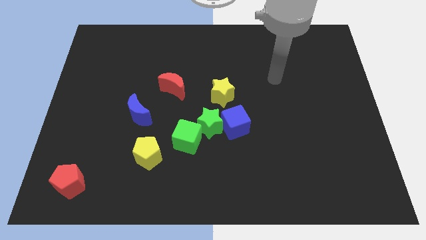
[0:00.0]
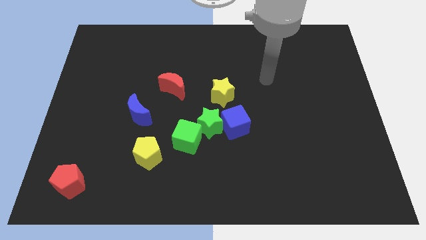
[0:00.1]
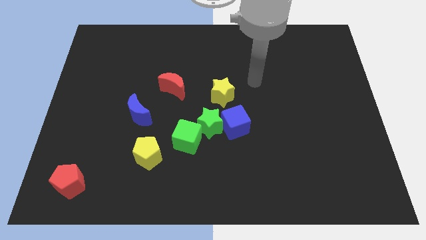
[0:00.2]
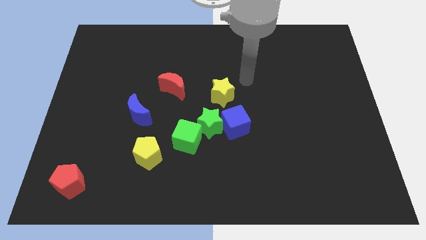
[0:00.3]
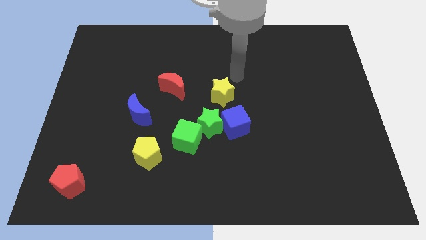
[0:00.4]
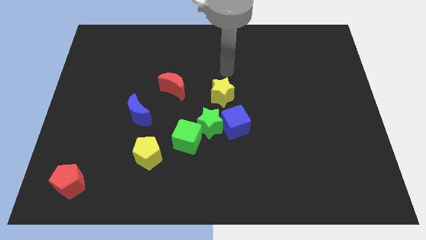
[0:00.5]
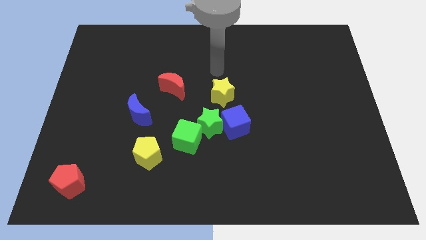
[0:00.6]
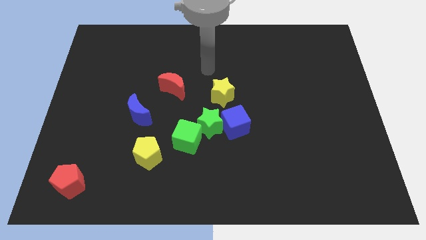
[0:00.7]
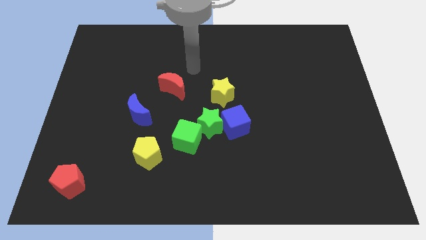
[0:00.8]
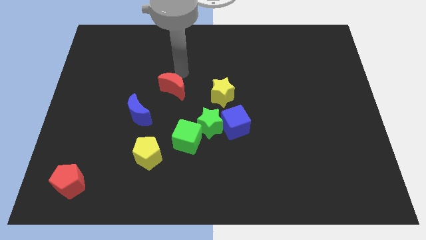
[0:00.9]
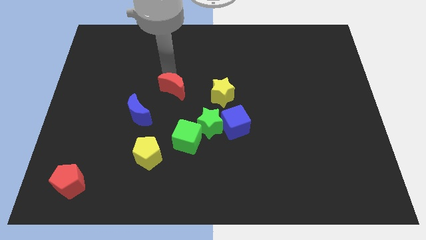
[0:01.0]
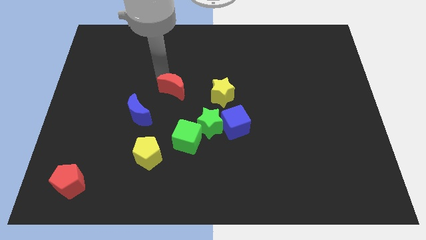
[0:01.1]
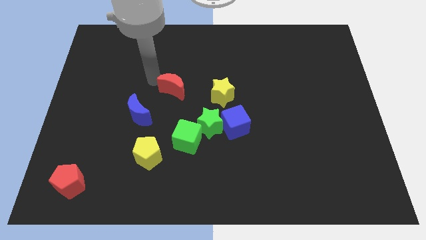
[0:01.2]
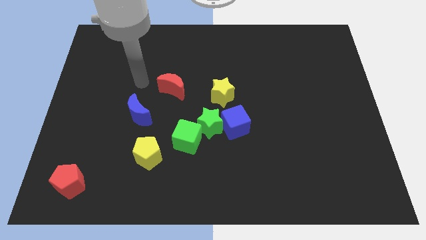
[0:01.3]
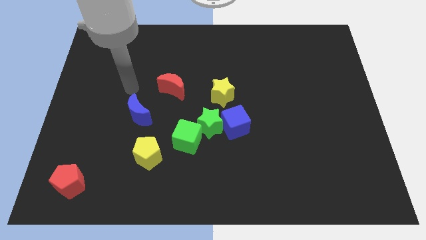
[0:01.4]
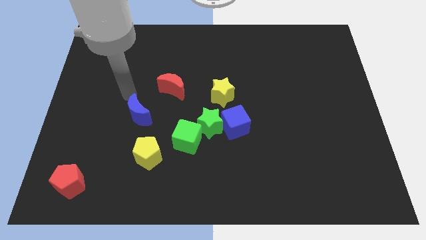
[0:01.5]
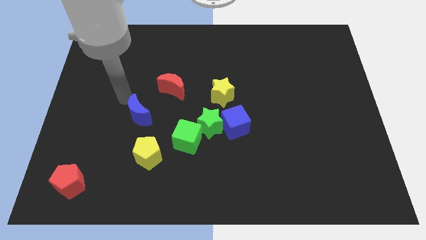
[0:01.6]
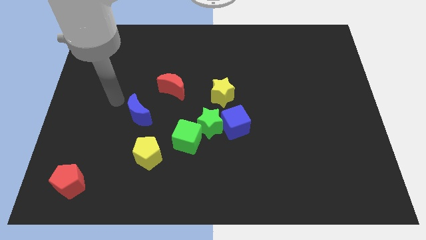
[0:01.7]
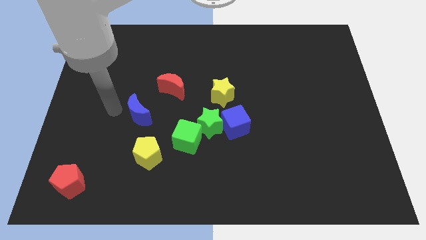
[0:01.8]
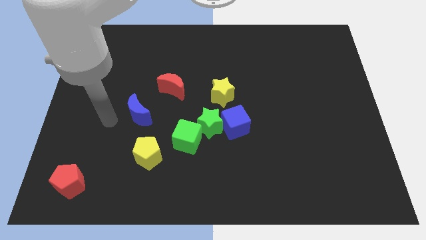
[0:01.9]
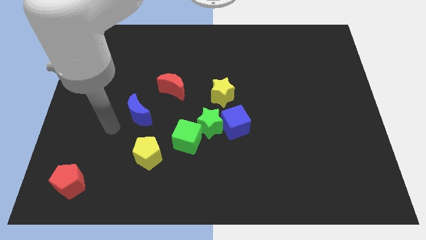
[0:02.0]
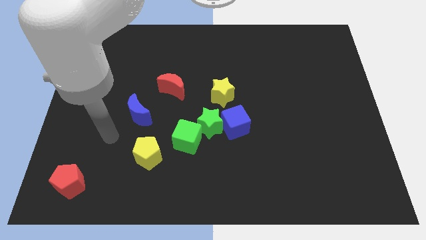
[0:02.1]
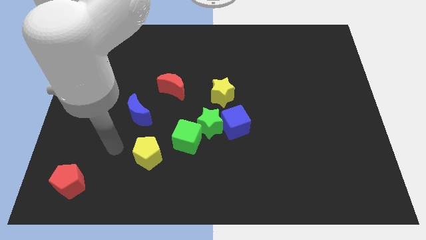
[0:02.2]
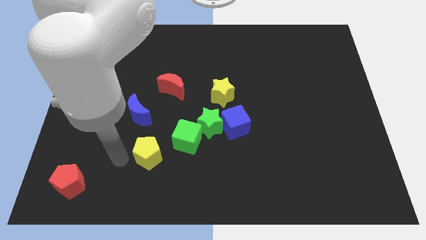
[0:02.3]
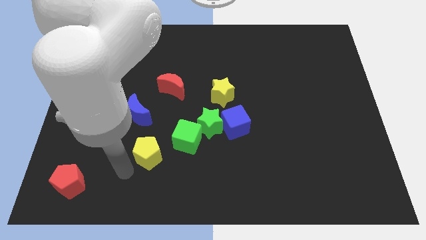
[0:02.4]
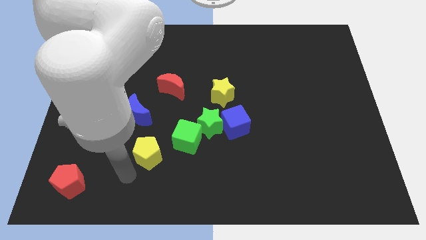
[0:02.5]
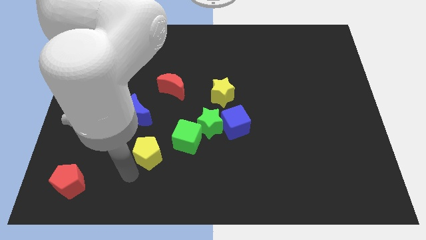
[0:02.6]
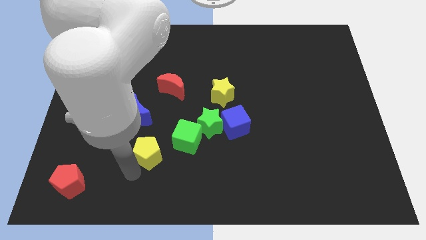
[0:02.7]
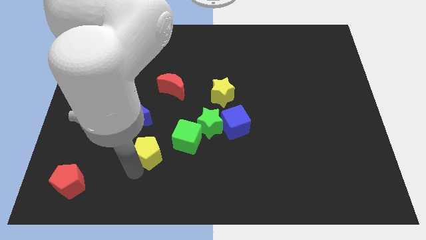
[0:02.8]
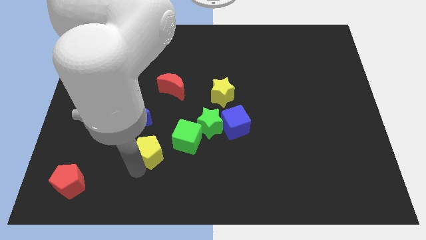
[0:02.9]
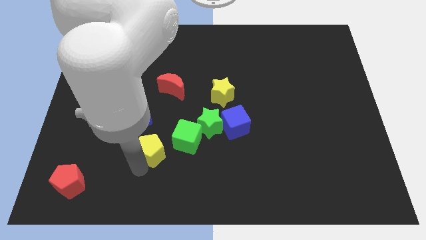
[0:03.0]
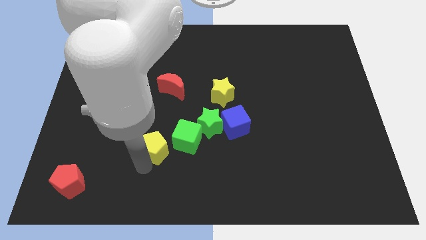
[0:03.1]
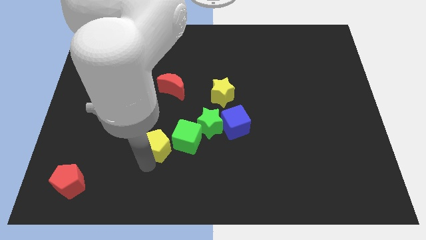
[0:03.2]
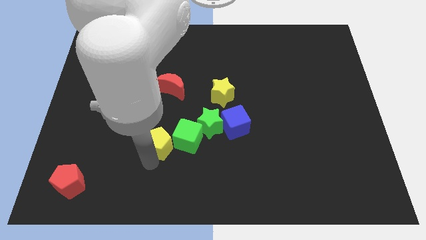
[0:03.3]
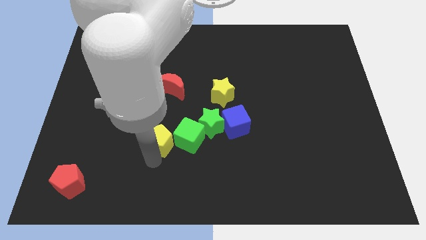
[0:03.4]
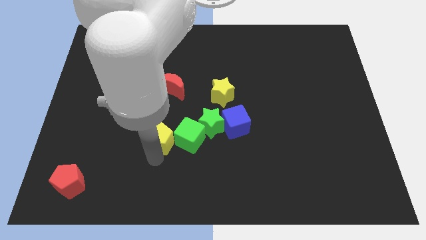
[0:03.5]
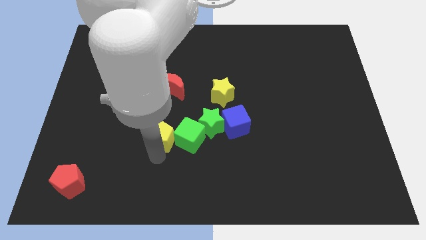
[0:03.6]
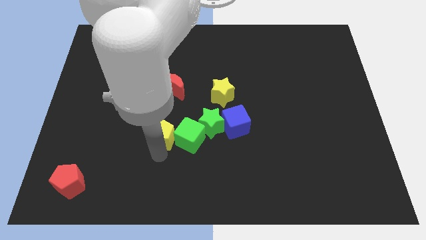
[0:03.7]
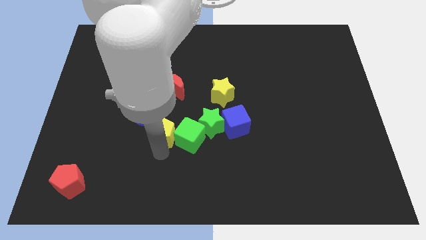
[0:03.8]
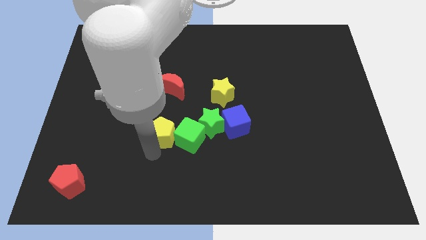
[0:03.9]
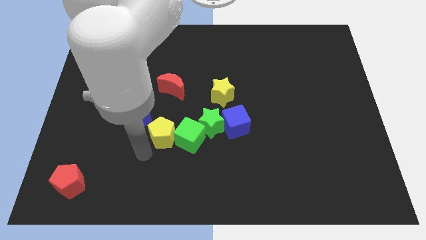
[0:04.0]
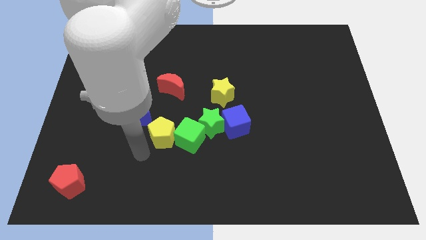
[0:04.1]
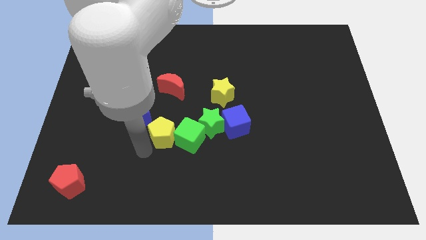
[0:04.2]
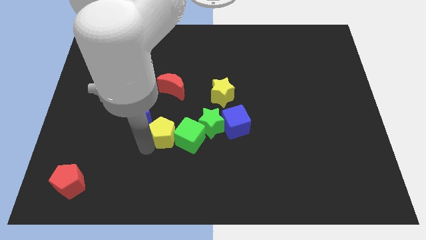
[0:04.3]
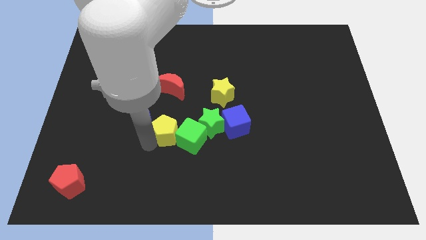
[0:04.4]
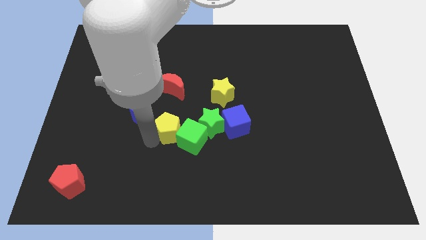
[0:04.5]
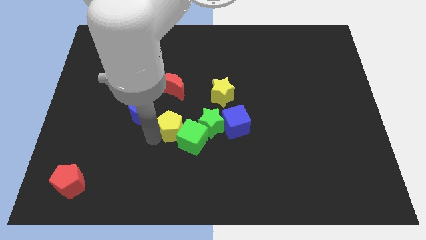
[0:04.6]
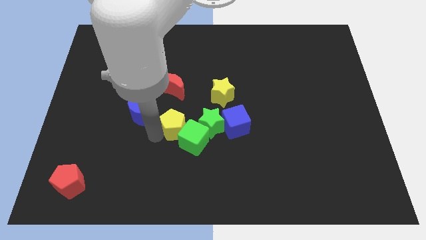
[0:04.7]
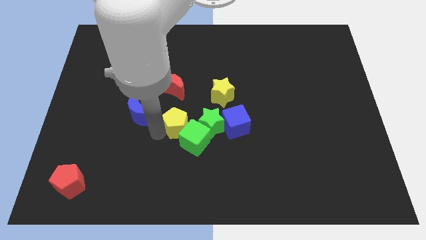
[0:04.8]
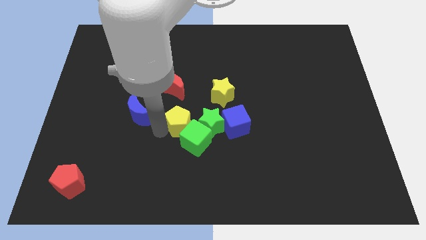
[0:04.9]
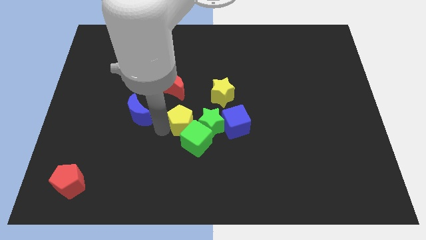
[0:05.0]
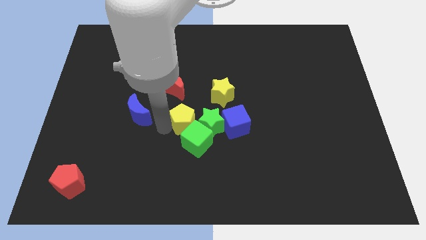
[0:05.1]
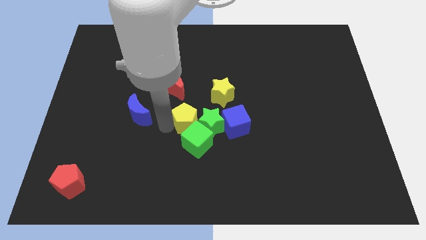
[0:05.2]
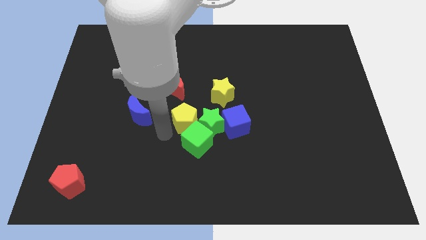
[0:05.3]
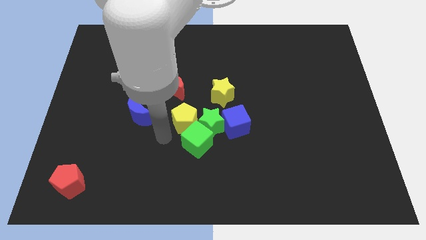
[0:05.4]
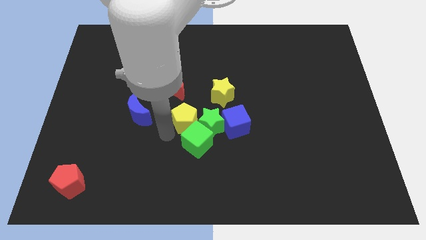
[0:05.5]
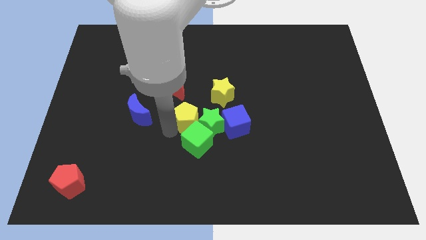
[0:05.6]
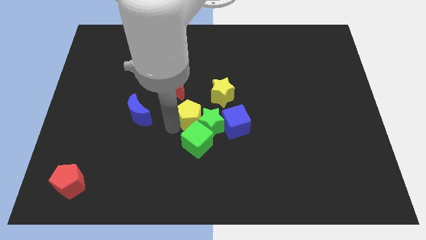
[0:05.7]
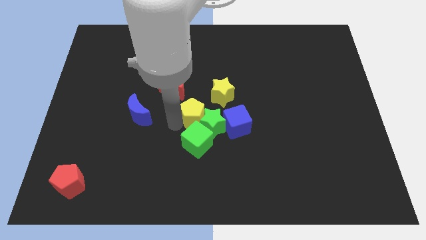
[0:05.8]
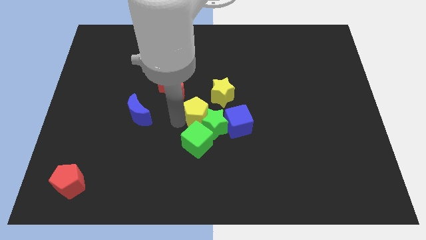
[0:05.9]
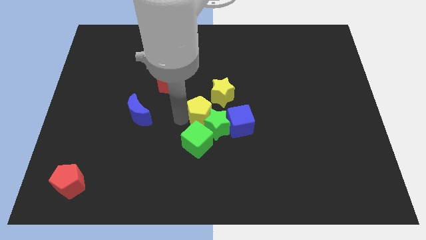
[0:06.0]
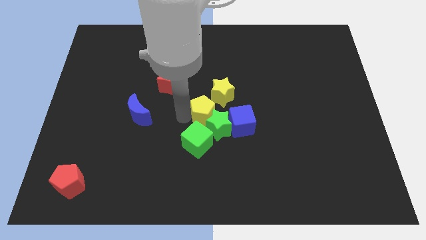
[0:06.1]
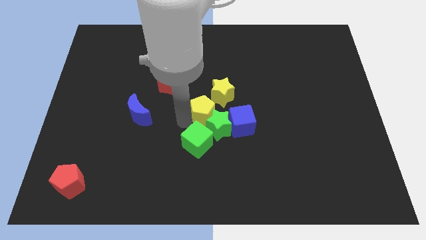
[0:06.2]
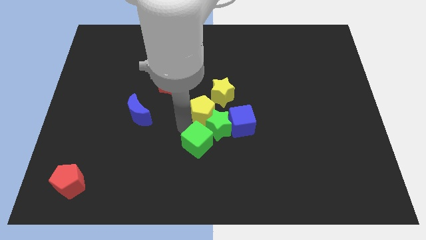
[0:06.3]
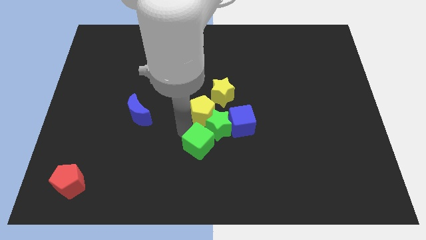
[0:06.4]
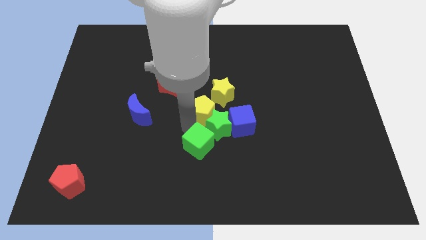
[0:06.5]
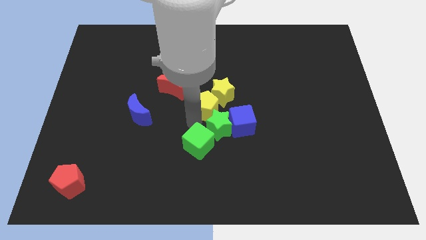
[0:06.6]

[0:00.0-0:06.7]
put the yellow pentagon next to the yellow star

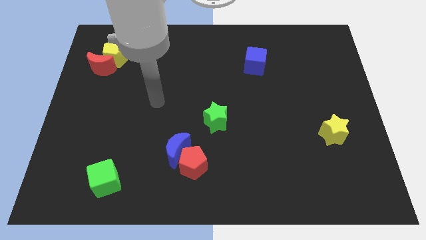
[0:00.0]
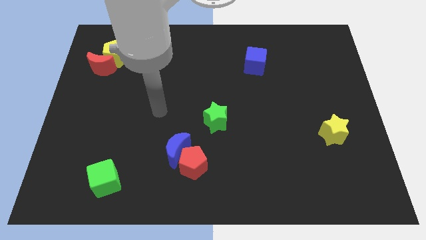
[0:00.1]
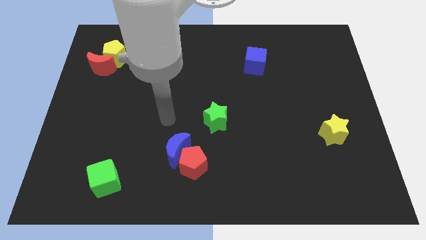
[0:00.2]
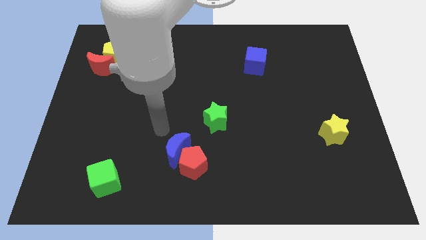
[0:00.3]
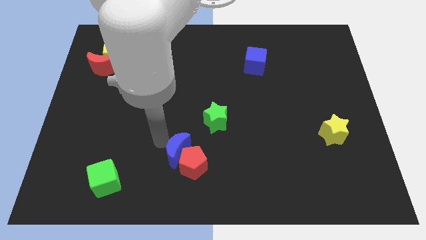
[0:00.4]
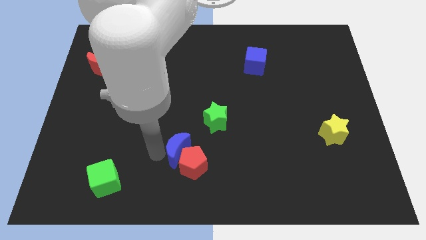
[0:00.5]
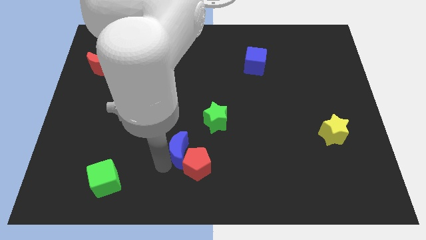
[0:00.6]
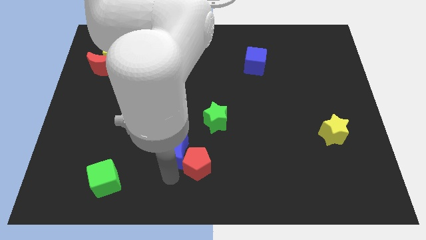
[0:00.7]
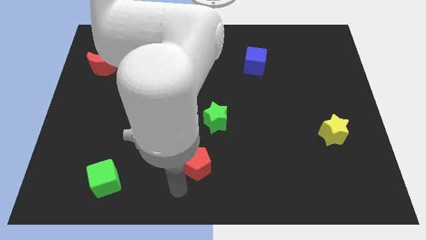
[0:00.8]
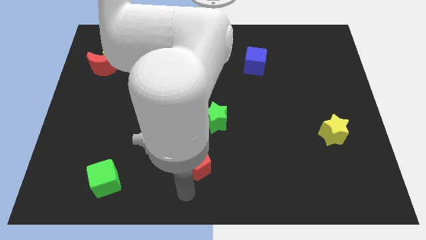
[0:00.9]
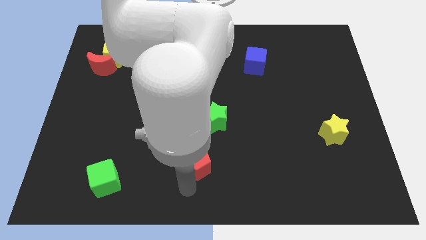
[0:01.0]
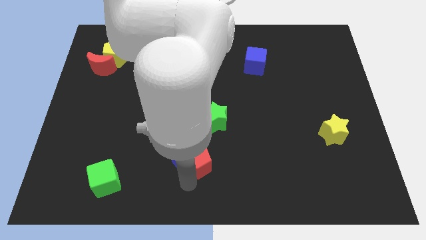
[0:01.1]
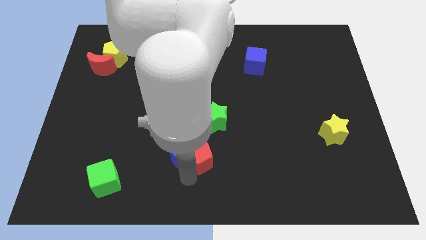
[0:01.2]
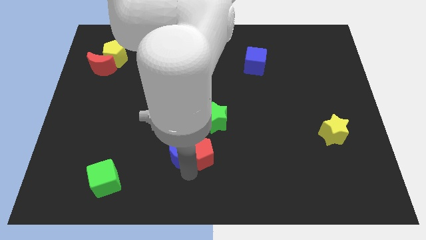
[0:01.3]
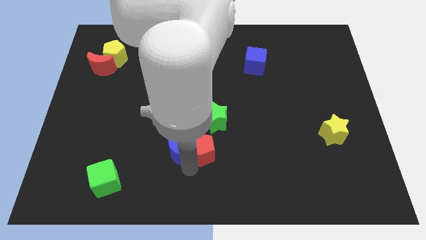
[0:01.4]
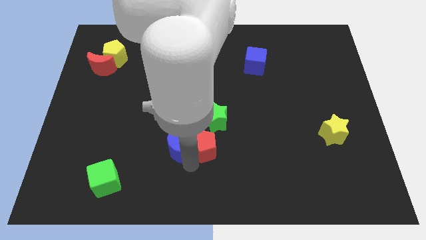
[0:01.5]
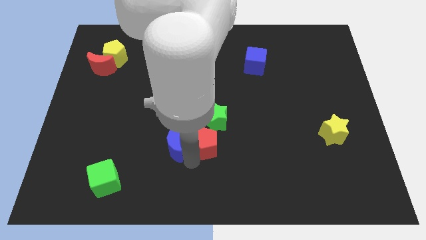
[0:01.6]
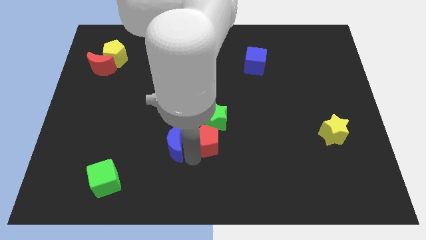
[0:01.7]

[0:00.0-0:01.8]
put the red pentagon close to the green star
